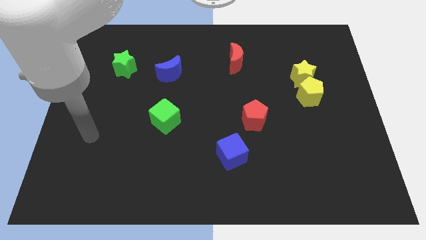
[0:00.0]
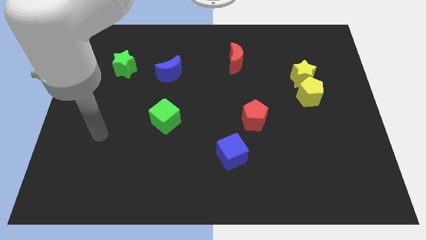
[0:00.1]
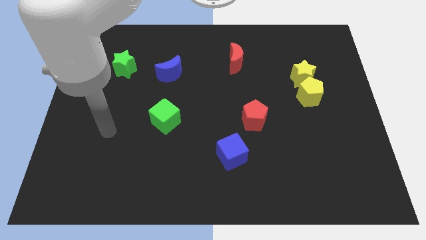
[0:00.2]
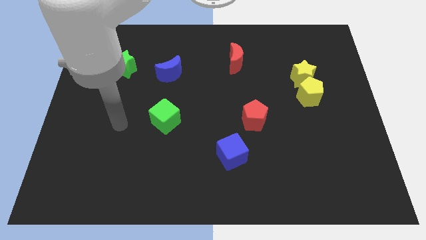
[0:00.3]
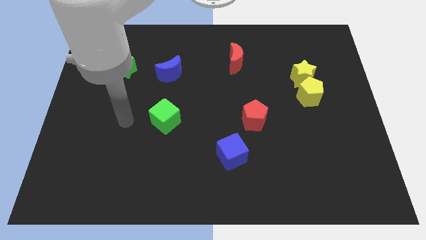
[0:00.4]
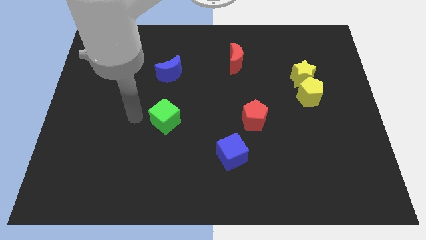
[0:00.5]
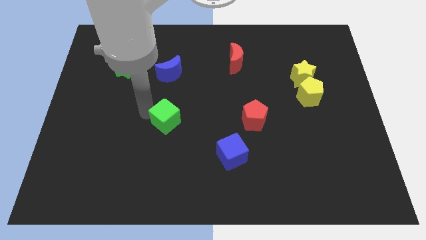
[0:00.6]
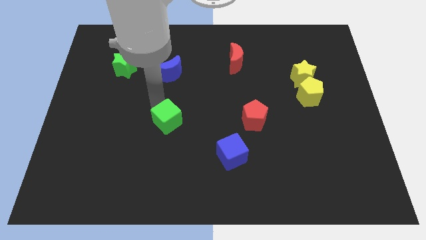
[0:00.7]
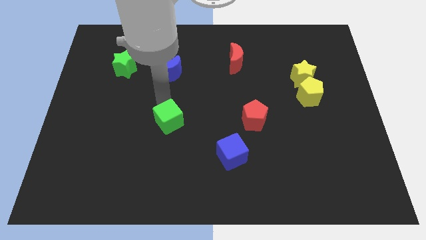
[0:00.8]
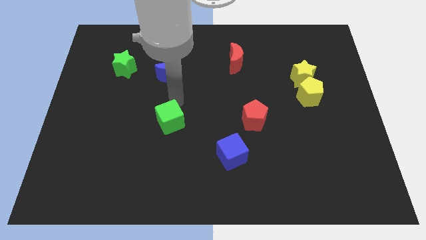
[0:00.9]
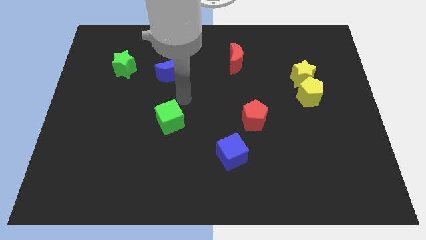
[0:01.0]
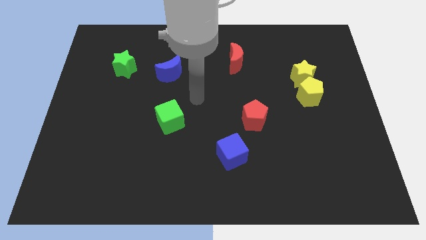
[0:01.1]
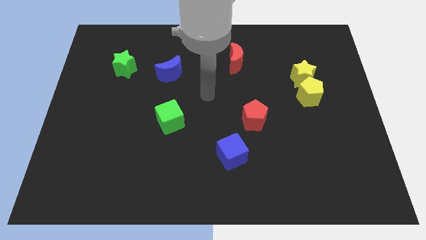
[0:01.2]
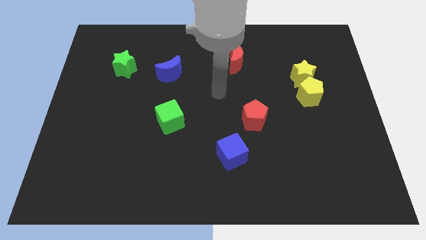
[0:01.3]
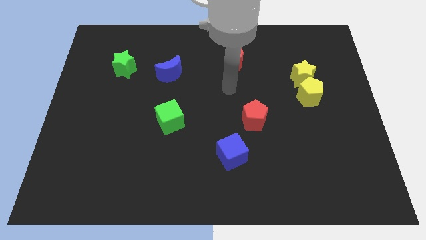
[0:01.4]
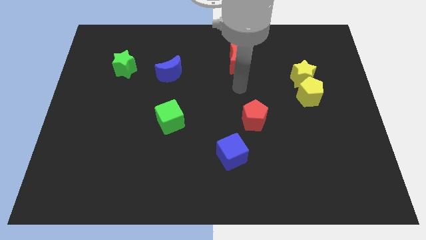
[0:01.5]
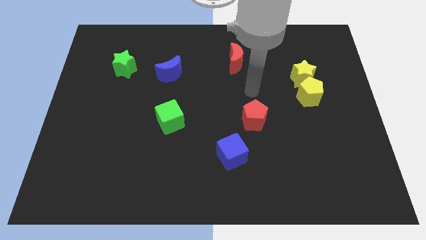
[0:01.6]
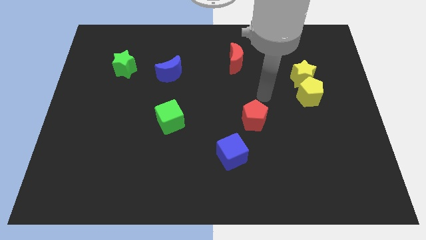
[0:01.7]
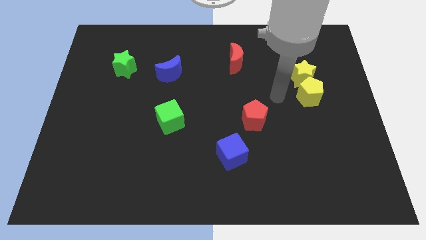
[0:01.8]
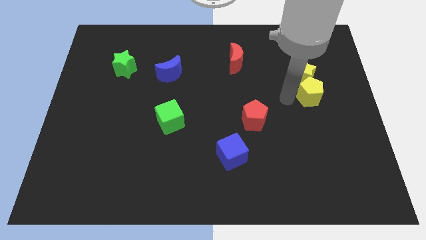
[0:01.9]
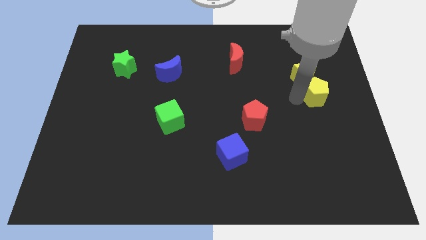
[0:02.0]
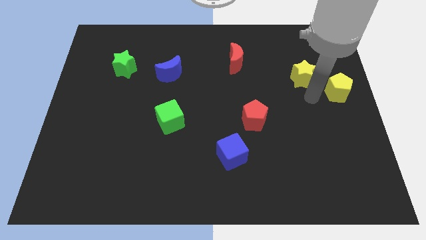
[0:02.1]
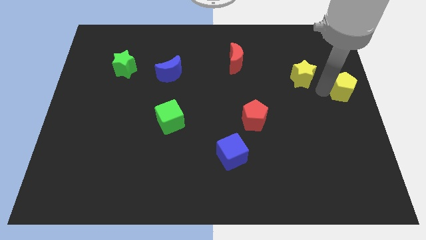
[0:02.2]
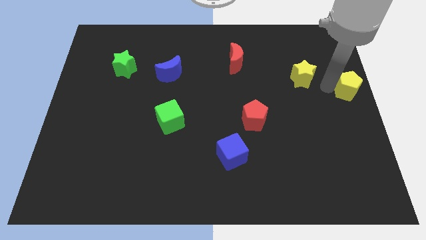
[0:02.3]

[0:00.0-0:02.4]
pull the yellow star apart from the yellow pentagon

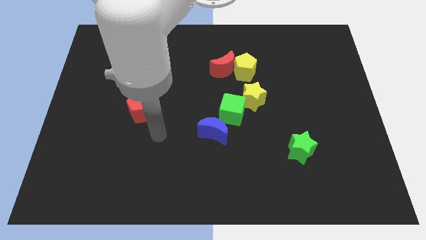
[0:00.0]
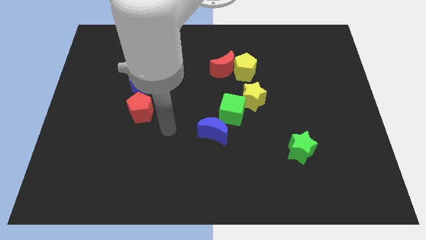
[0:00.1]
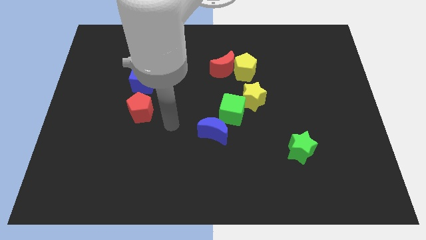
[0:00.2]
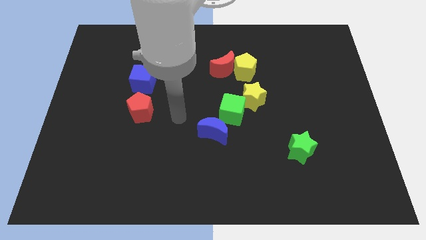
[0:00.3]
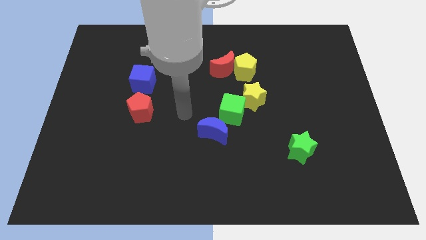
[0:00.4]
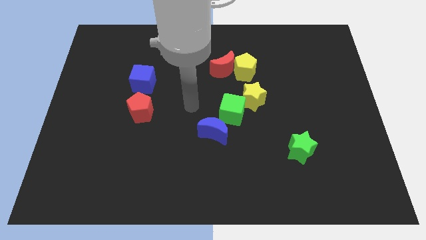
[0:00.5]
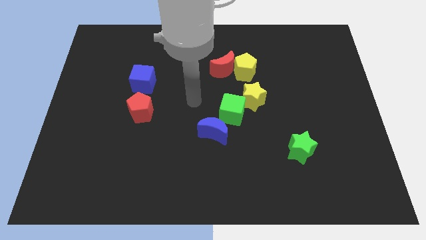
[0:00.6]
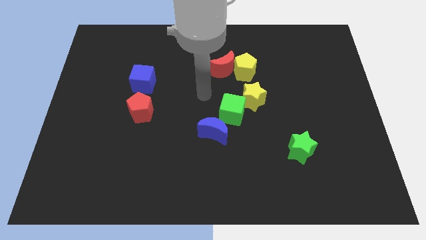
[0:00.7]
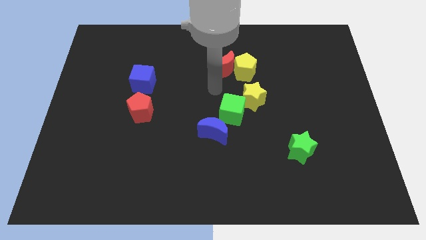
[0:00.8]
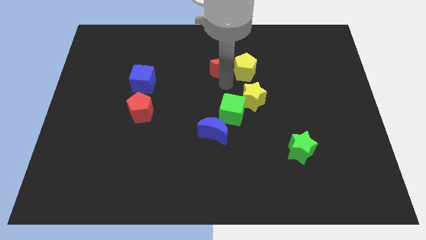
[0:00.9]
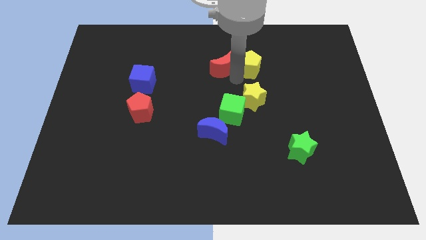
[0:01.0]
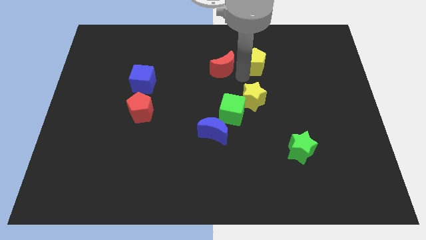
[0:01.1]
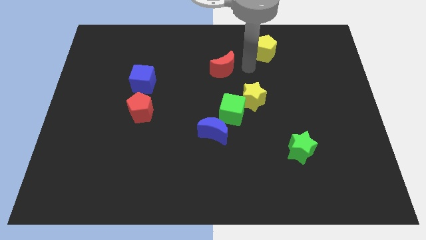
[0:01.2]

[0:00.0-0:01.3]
separate the red moon from the yellow pentagon

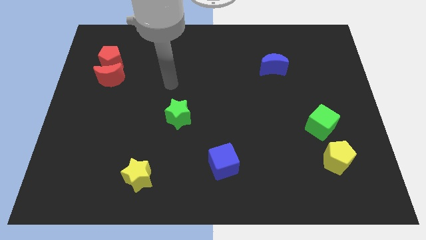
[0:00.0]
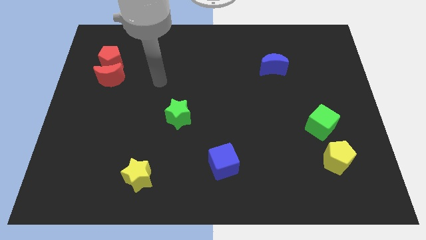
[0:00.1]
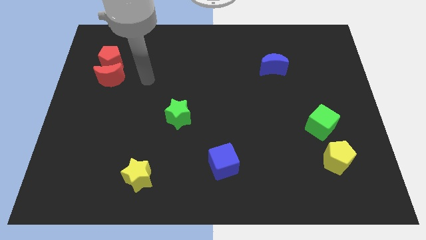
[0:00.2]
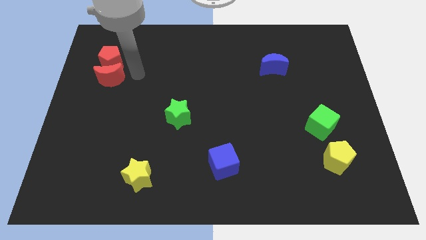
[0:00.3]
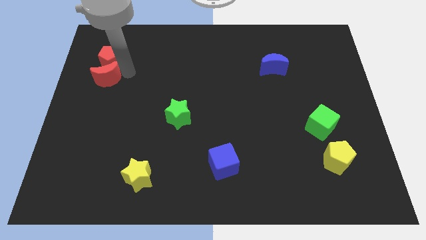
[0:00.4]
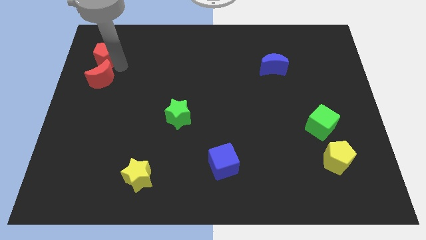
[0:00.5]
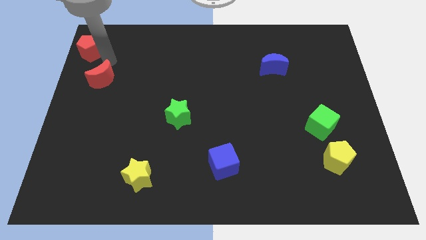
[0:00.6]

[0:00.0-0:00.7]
separate the red moon from the red pentagon

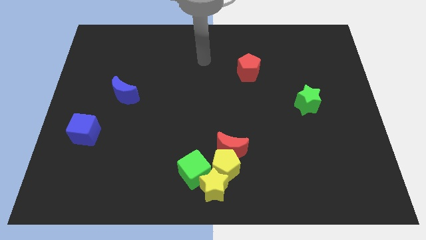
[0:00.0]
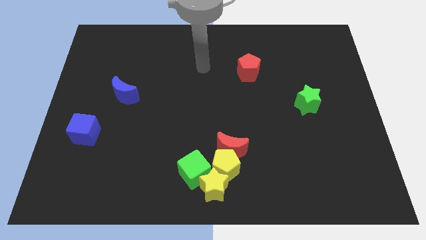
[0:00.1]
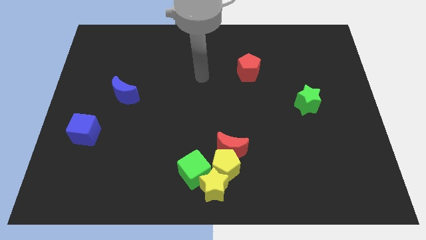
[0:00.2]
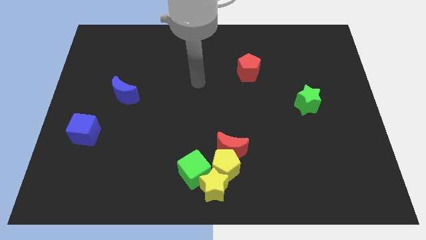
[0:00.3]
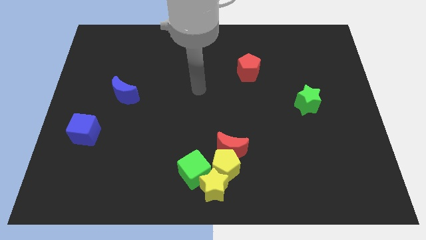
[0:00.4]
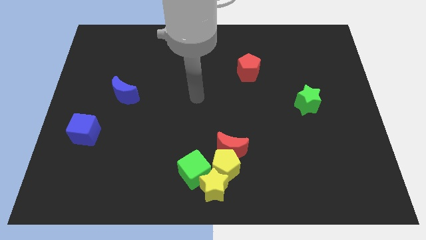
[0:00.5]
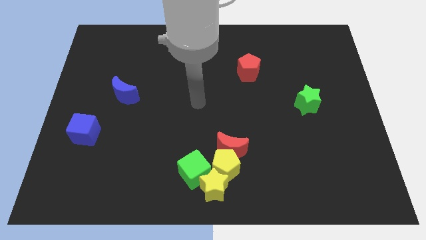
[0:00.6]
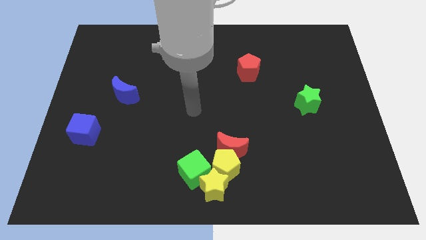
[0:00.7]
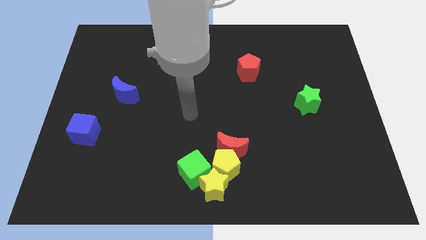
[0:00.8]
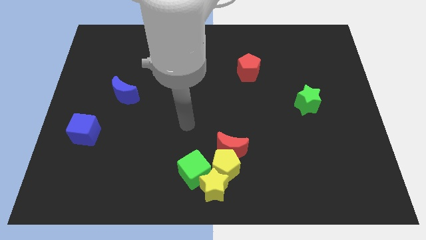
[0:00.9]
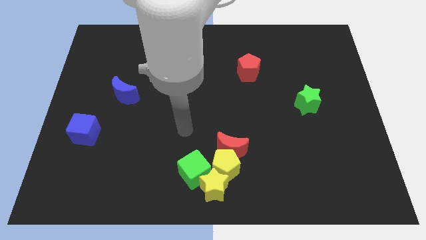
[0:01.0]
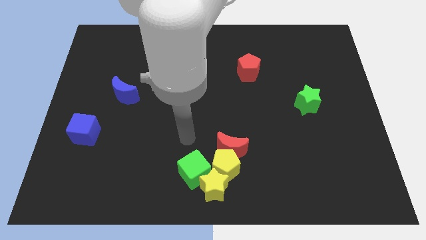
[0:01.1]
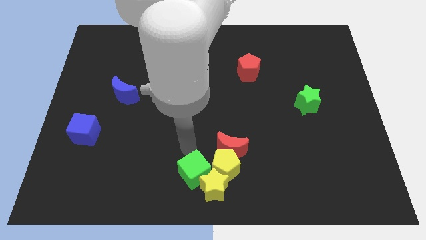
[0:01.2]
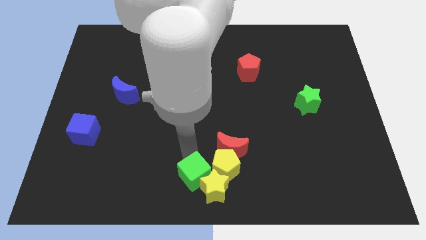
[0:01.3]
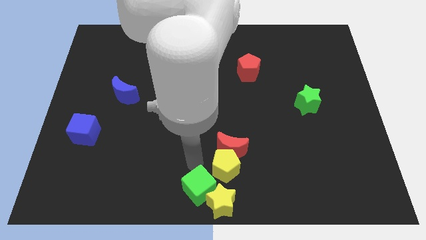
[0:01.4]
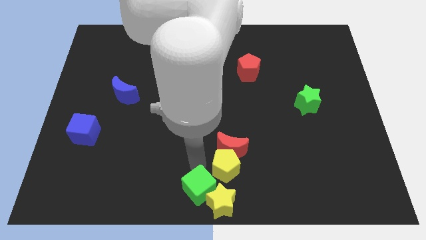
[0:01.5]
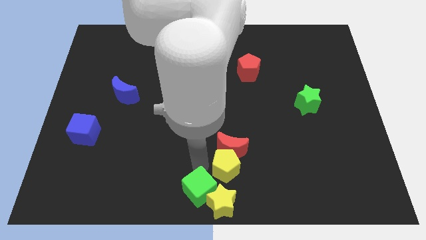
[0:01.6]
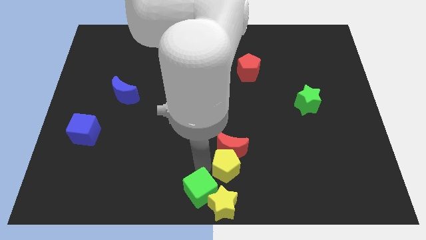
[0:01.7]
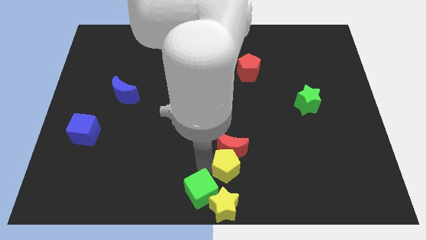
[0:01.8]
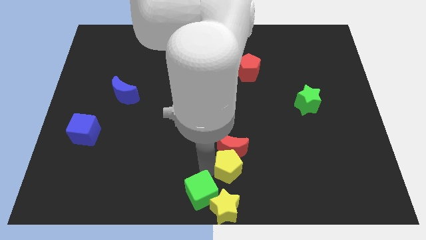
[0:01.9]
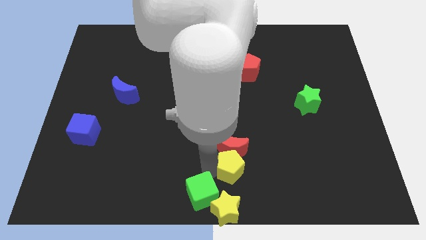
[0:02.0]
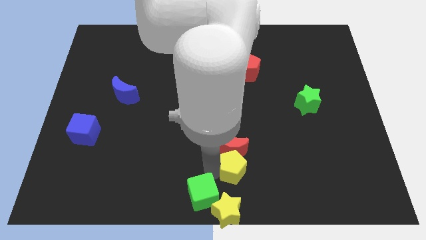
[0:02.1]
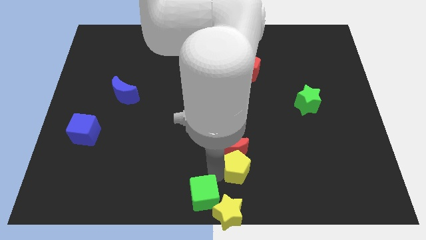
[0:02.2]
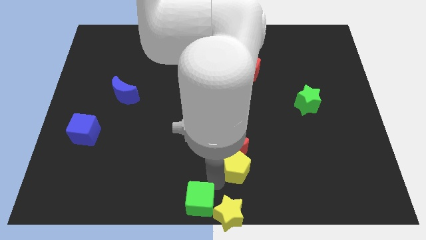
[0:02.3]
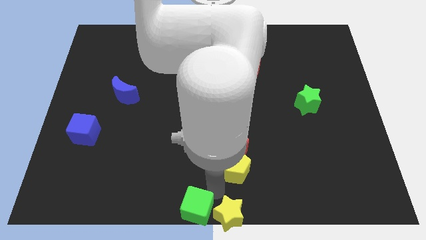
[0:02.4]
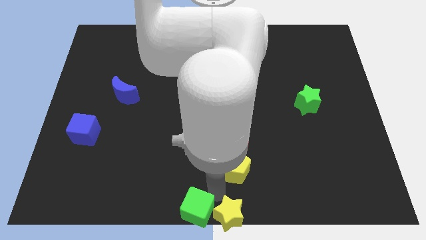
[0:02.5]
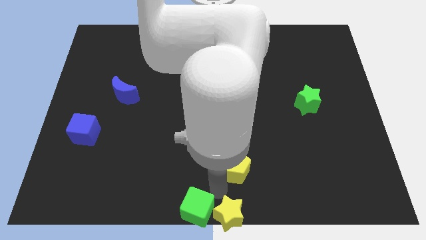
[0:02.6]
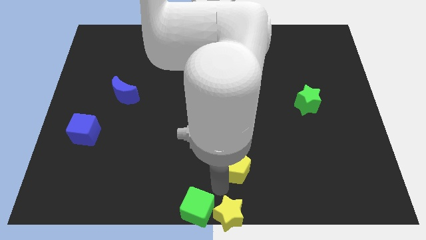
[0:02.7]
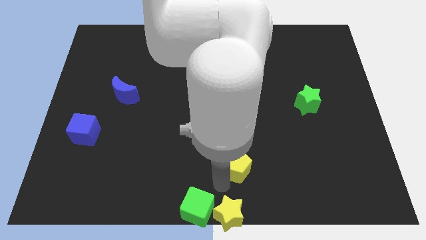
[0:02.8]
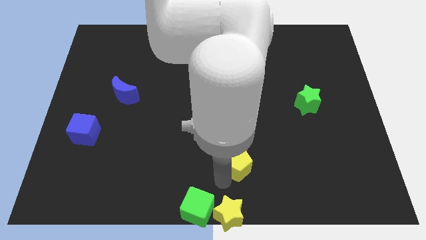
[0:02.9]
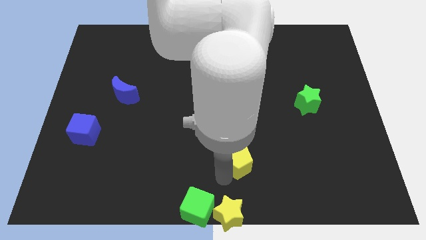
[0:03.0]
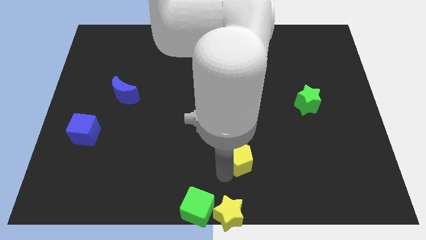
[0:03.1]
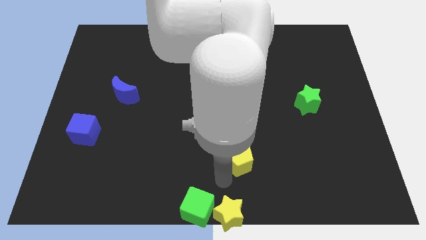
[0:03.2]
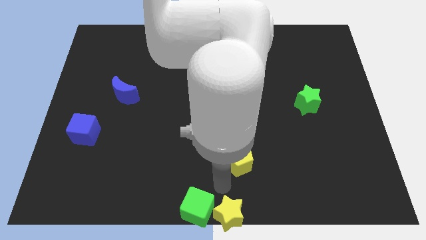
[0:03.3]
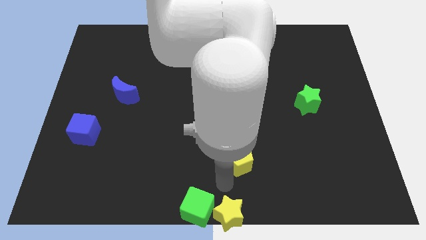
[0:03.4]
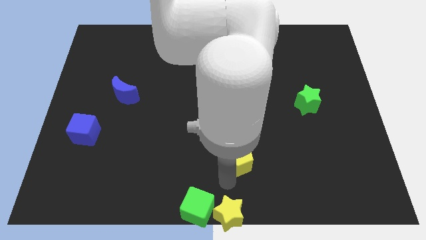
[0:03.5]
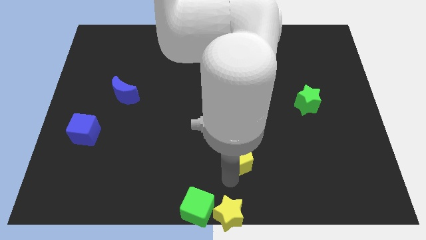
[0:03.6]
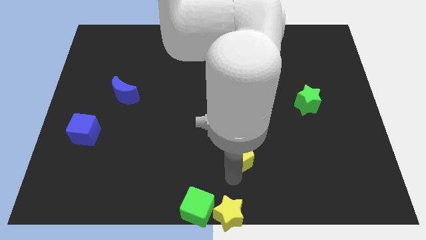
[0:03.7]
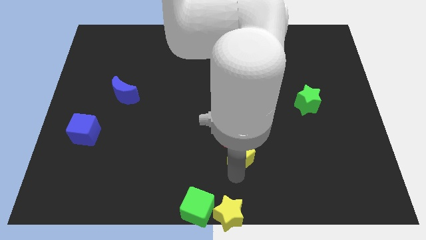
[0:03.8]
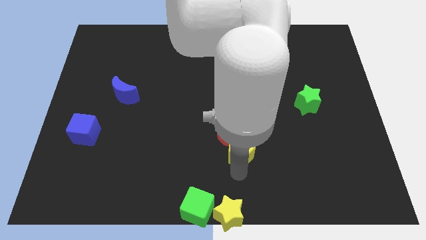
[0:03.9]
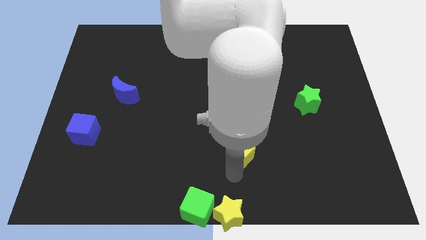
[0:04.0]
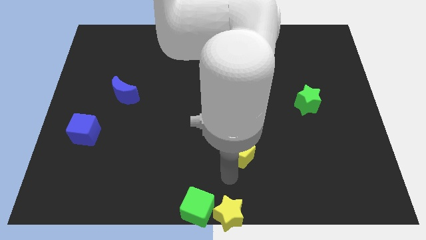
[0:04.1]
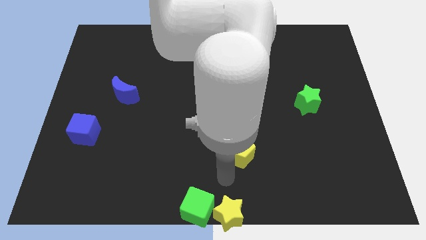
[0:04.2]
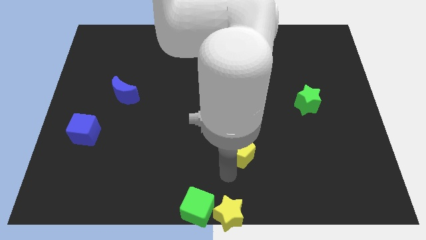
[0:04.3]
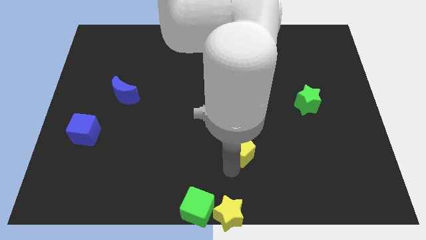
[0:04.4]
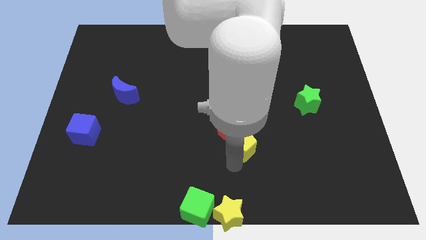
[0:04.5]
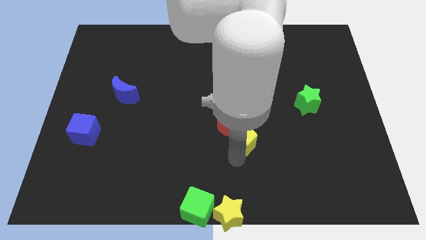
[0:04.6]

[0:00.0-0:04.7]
separate the yellow pentagon from the red moon, yellow star, and green cube

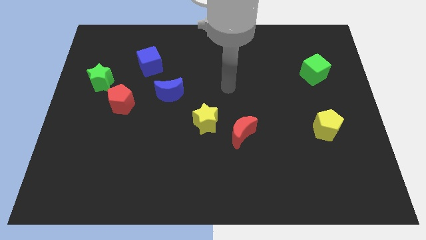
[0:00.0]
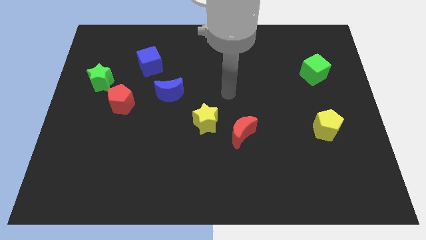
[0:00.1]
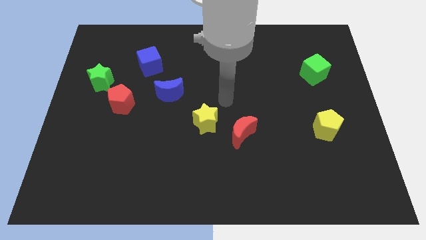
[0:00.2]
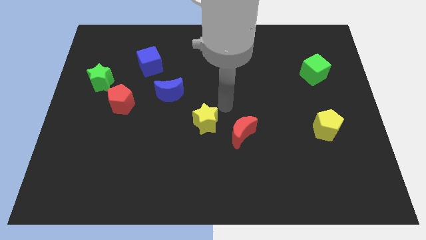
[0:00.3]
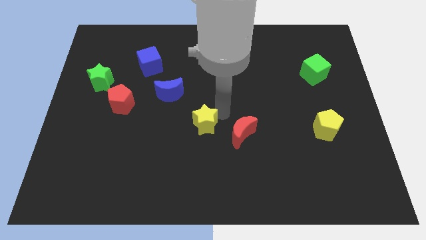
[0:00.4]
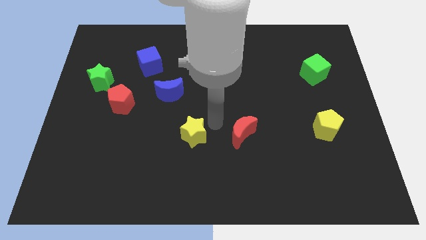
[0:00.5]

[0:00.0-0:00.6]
move the red moon away from the yellow star
